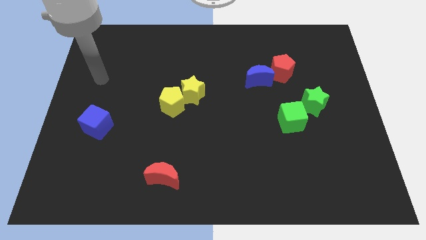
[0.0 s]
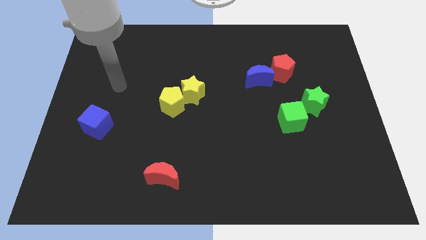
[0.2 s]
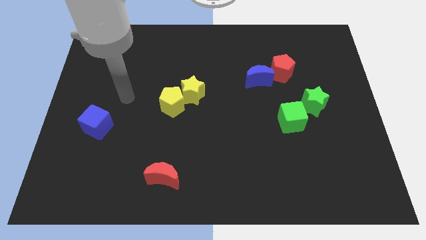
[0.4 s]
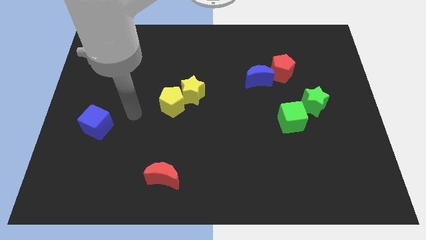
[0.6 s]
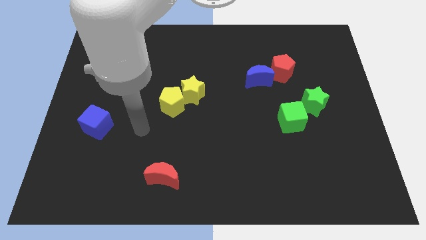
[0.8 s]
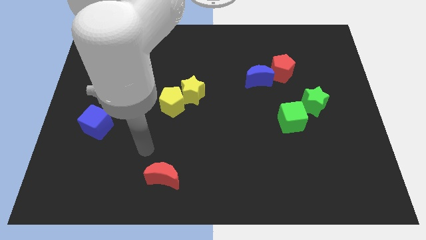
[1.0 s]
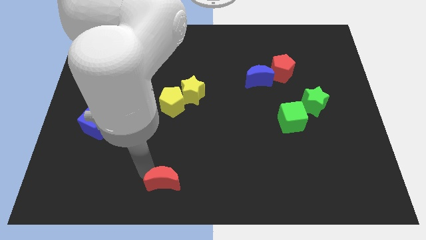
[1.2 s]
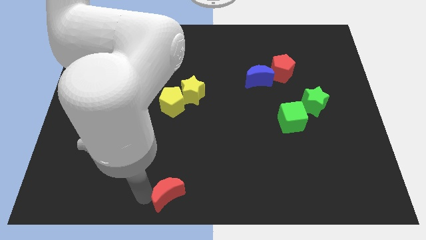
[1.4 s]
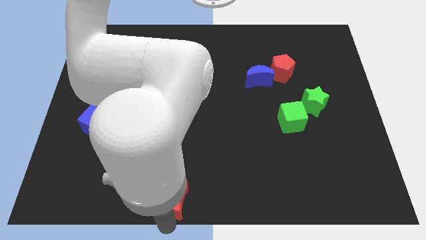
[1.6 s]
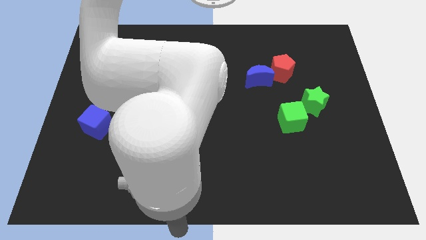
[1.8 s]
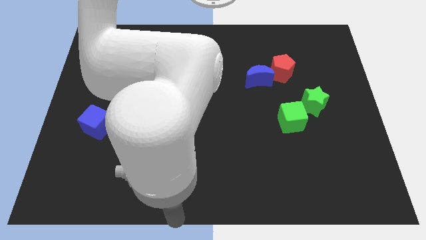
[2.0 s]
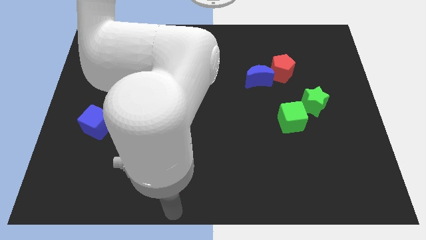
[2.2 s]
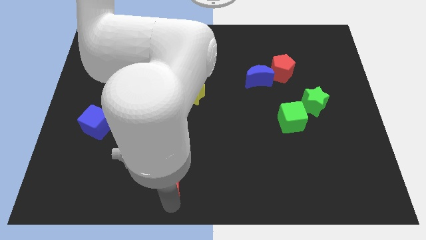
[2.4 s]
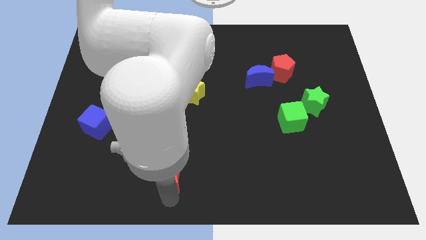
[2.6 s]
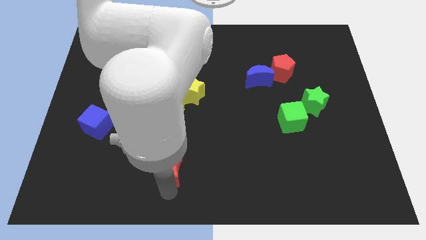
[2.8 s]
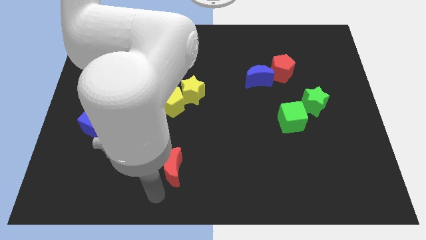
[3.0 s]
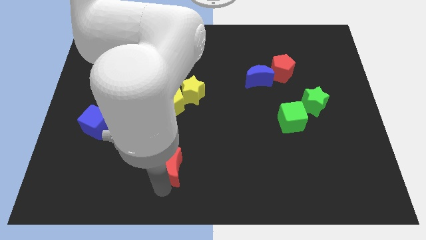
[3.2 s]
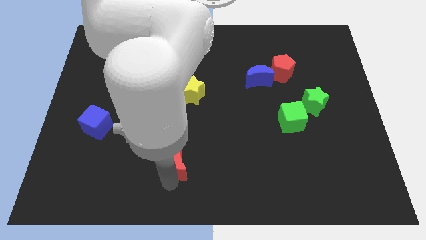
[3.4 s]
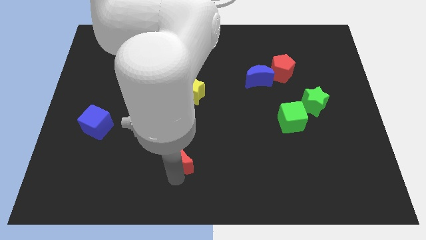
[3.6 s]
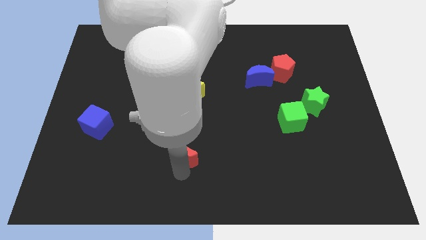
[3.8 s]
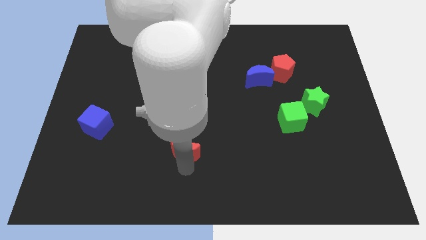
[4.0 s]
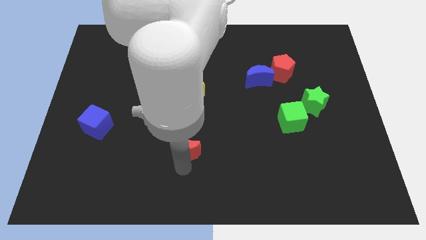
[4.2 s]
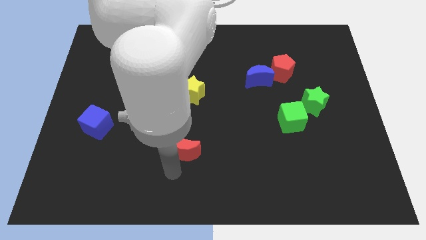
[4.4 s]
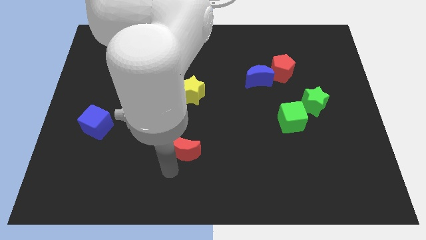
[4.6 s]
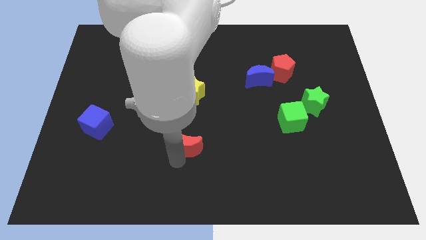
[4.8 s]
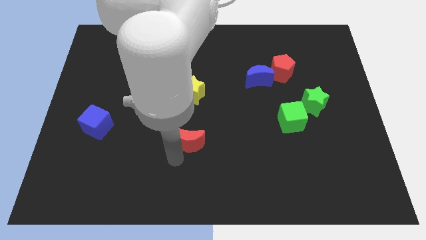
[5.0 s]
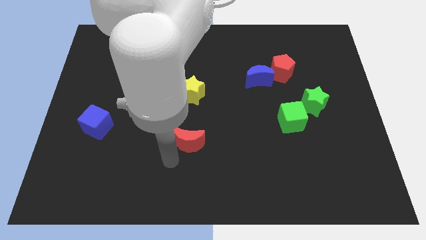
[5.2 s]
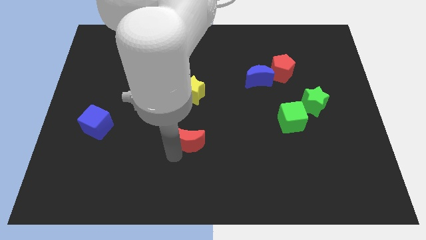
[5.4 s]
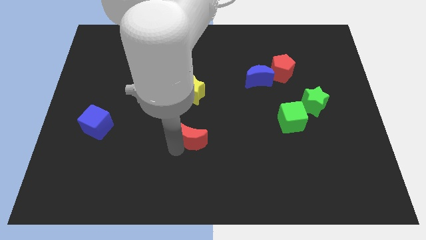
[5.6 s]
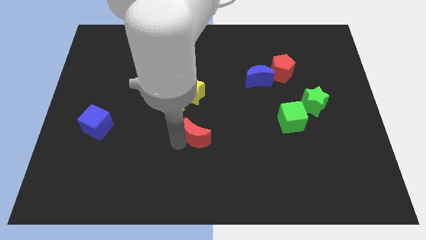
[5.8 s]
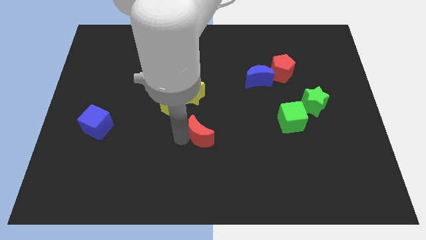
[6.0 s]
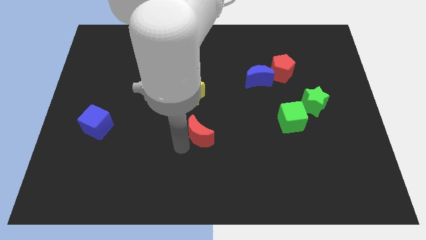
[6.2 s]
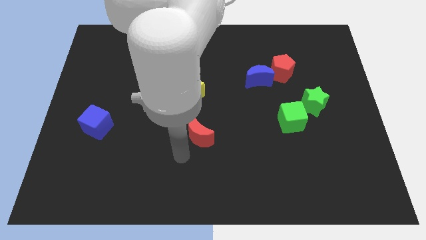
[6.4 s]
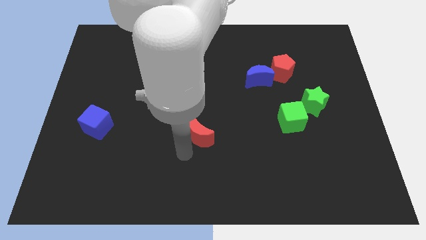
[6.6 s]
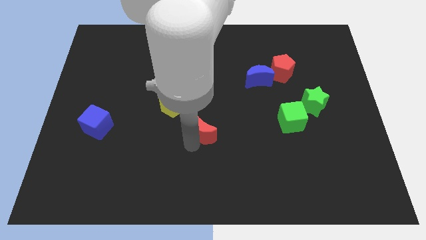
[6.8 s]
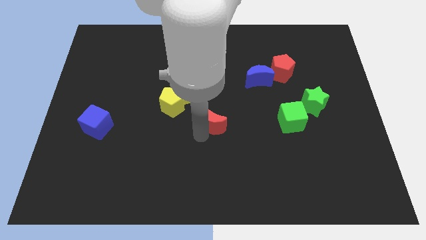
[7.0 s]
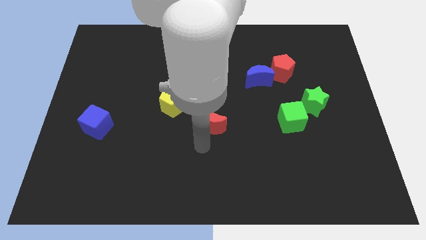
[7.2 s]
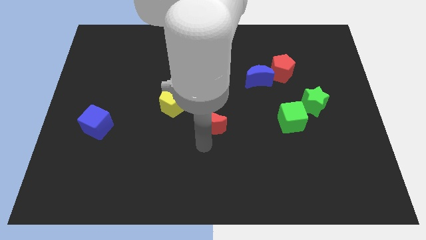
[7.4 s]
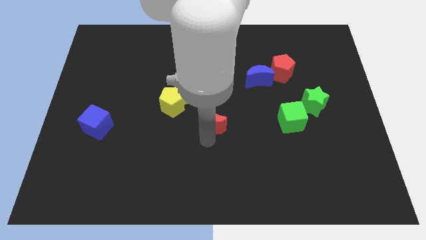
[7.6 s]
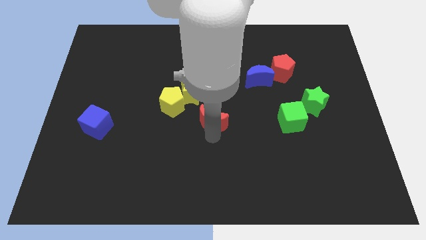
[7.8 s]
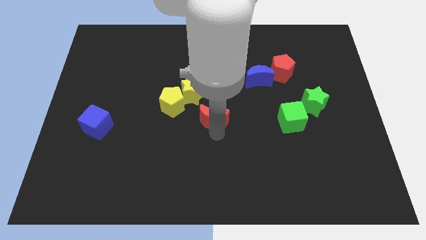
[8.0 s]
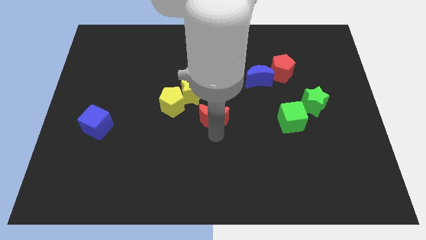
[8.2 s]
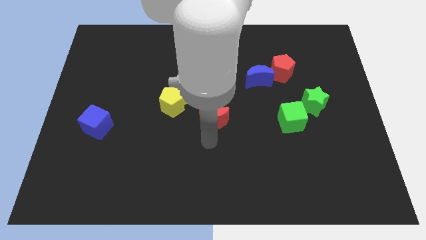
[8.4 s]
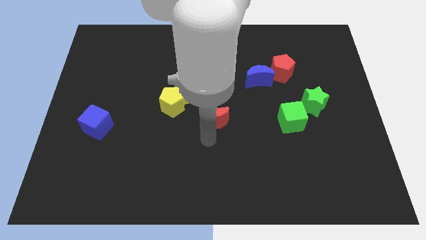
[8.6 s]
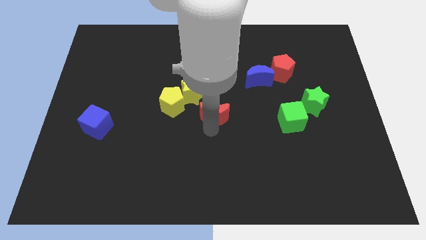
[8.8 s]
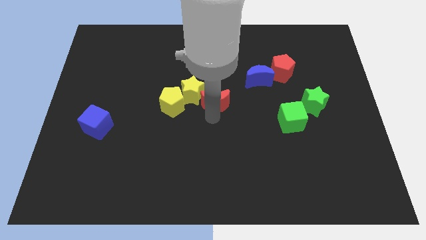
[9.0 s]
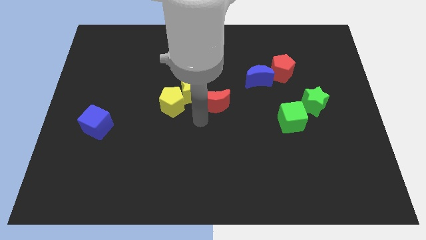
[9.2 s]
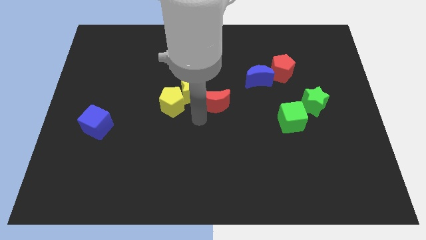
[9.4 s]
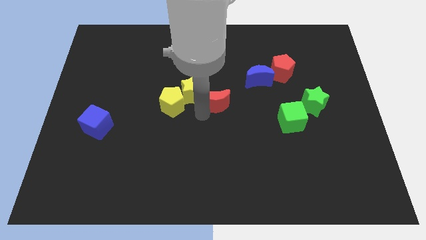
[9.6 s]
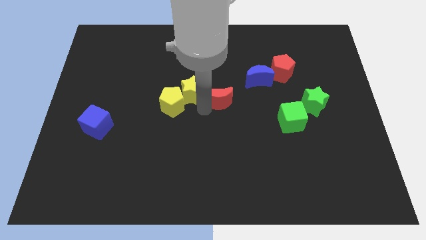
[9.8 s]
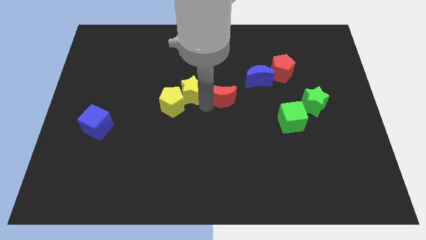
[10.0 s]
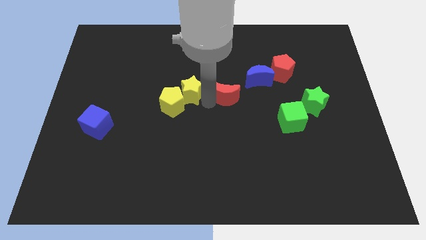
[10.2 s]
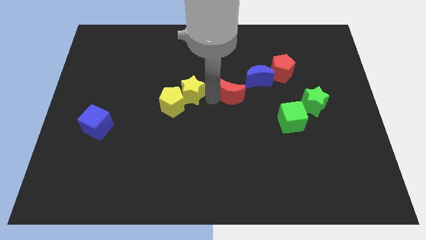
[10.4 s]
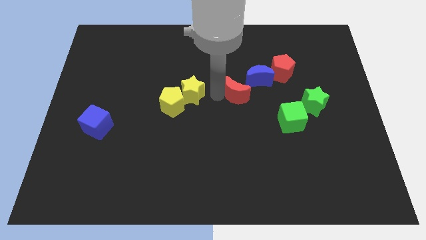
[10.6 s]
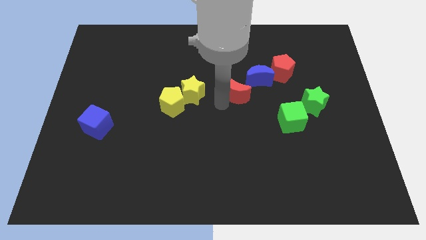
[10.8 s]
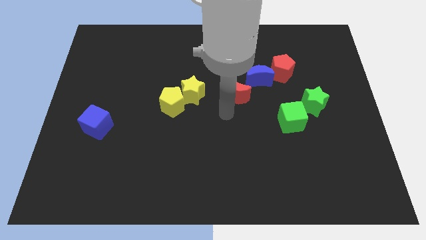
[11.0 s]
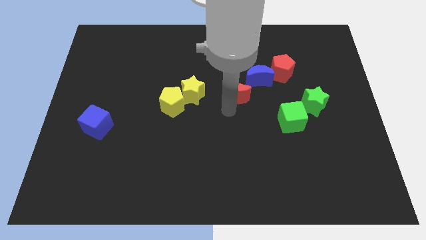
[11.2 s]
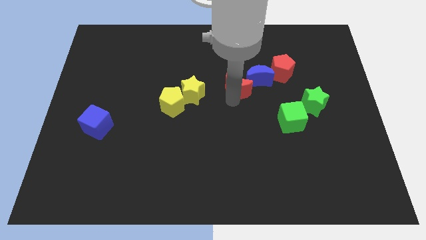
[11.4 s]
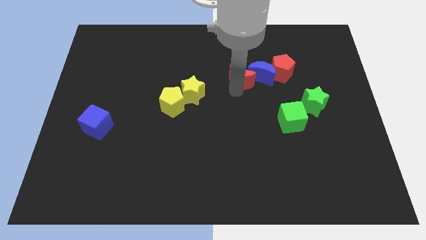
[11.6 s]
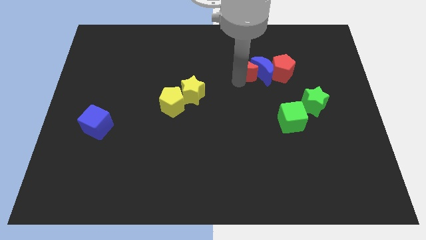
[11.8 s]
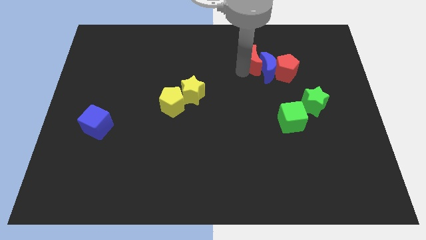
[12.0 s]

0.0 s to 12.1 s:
move the red moon diagonally up and to the left of the red pentagon

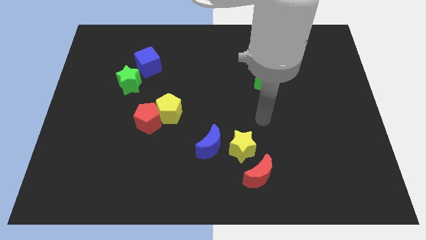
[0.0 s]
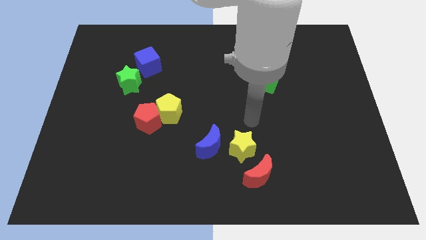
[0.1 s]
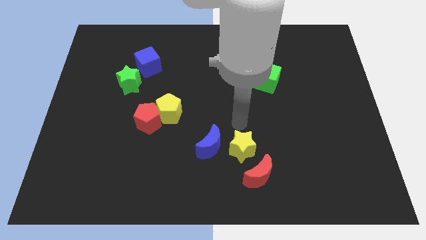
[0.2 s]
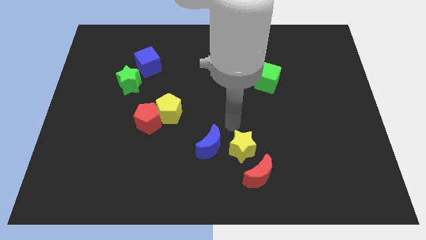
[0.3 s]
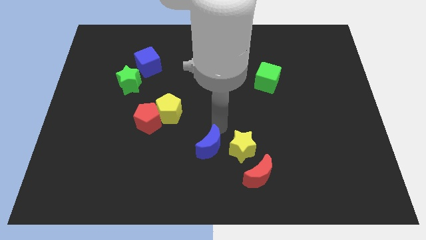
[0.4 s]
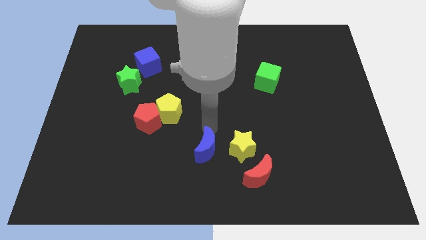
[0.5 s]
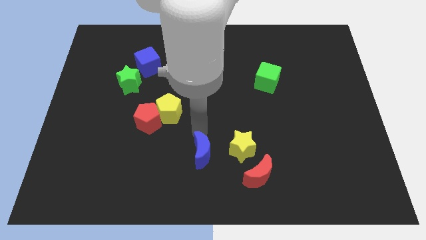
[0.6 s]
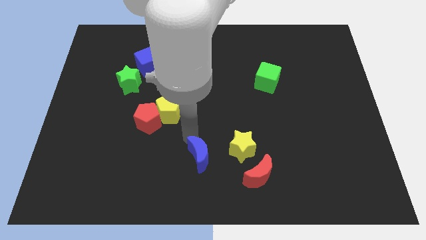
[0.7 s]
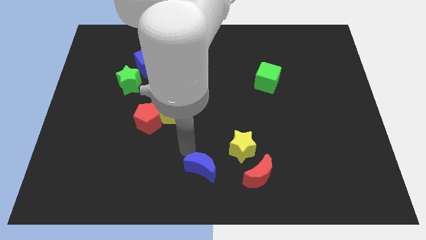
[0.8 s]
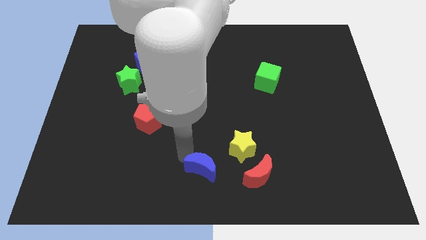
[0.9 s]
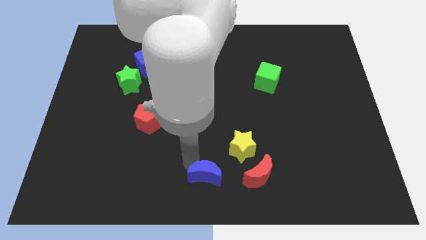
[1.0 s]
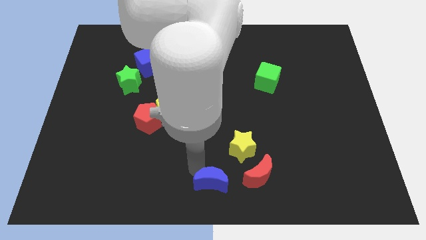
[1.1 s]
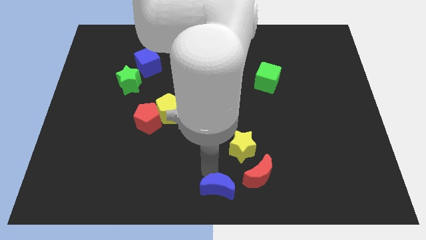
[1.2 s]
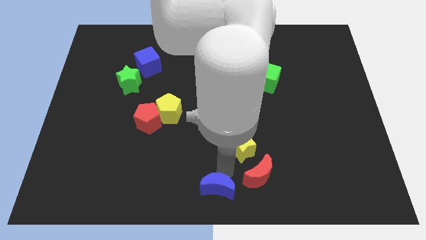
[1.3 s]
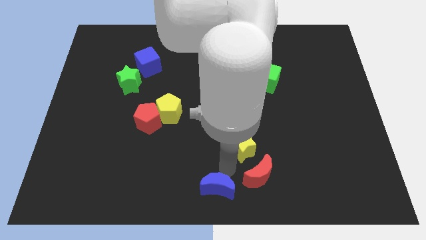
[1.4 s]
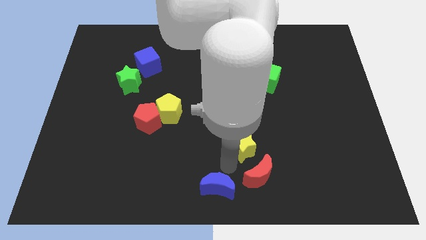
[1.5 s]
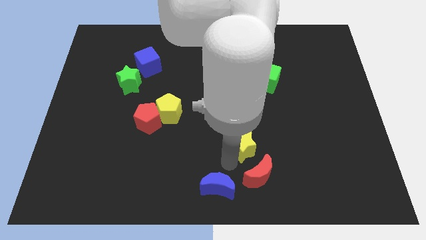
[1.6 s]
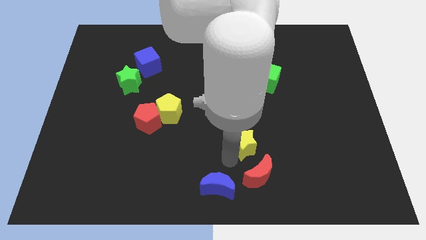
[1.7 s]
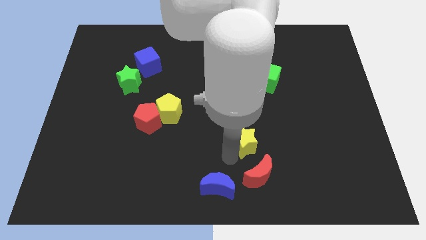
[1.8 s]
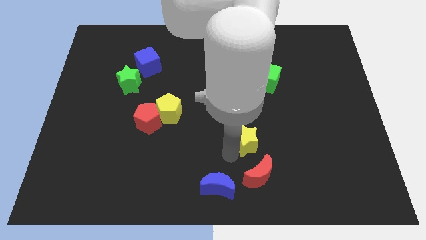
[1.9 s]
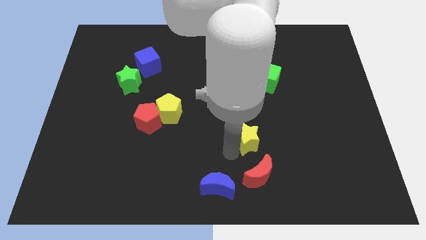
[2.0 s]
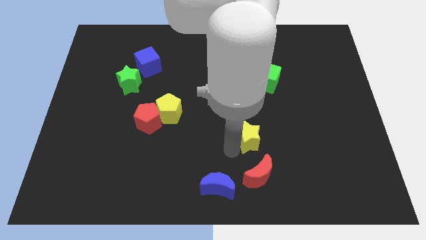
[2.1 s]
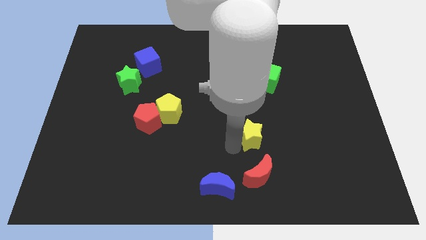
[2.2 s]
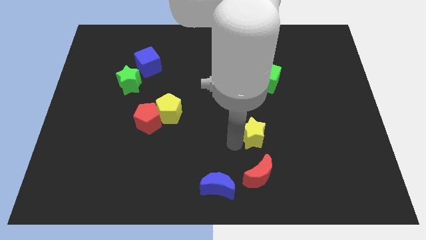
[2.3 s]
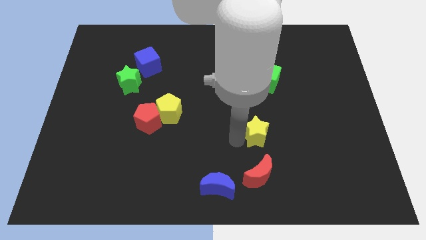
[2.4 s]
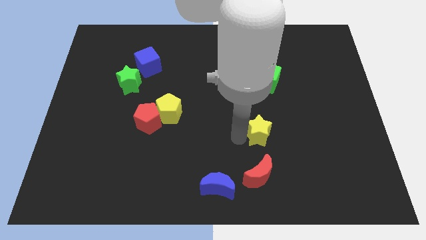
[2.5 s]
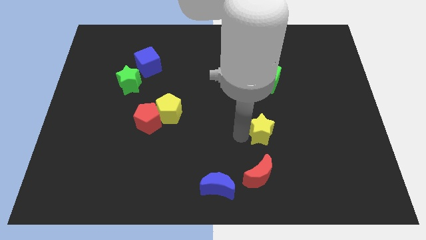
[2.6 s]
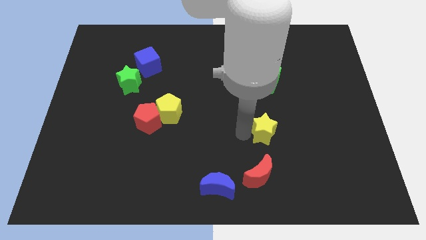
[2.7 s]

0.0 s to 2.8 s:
move the yellow star to the bottom of the green cube
